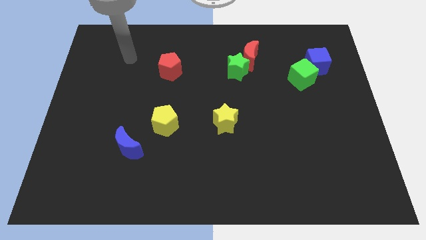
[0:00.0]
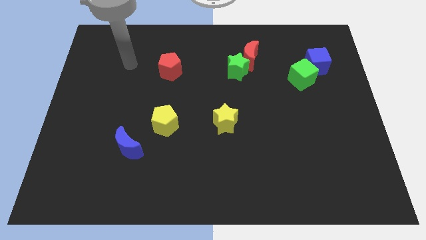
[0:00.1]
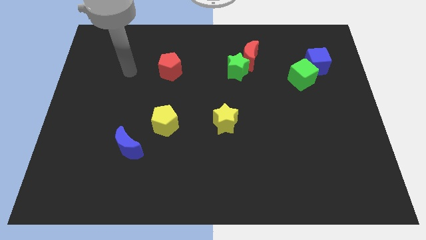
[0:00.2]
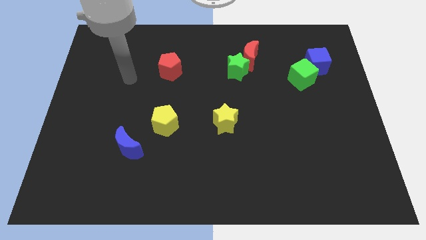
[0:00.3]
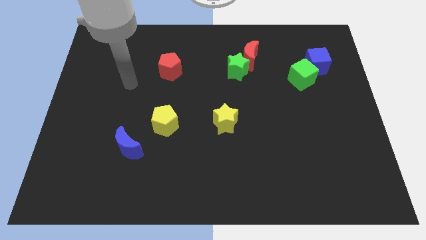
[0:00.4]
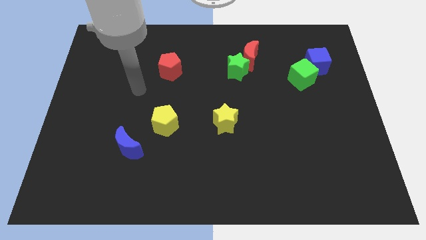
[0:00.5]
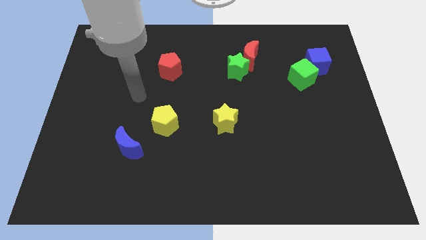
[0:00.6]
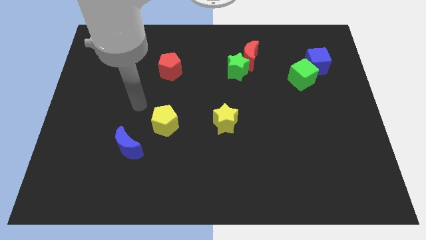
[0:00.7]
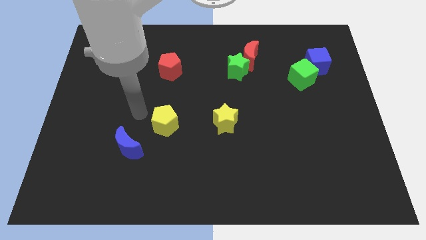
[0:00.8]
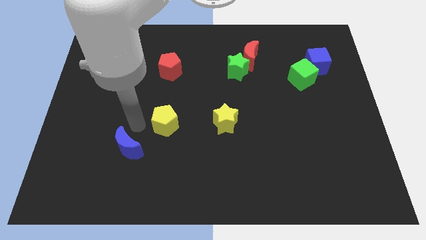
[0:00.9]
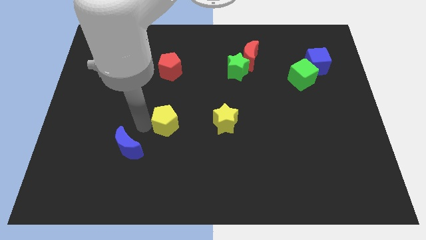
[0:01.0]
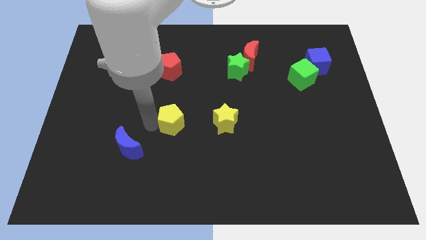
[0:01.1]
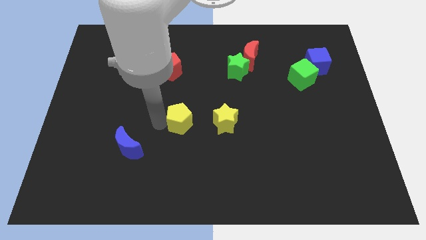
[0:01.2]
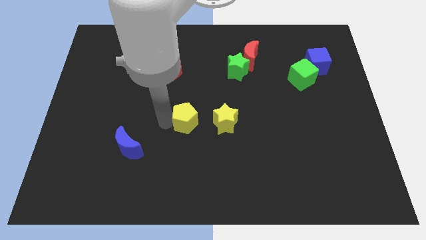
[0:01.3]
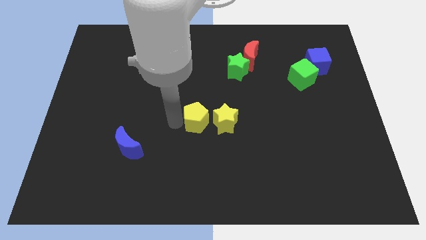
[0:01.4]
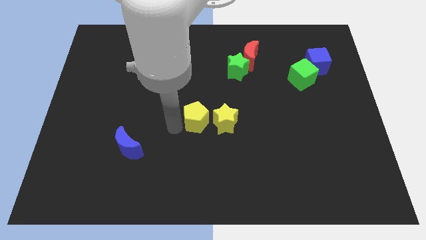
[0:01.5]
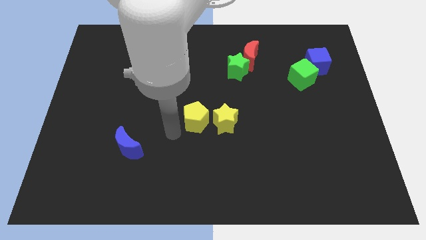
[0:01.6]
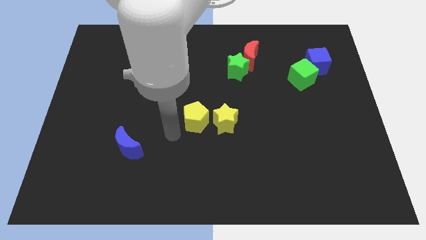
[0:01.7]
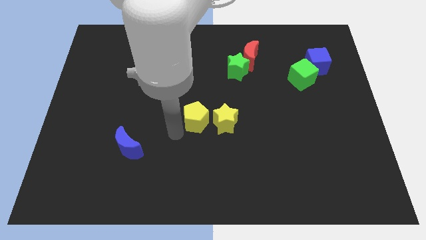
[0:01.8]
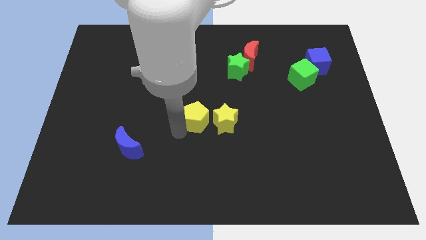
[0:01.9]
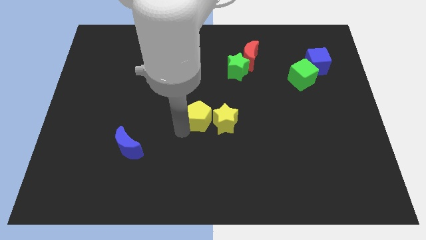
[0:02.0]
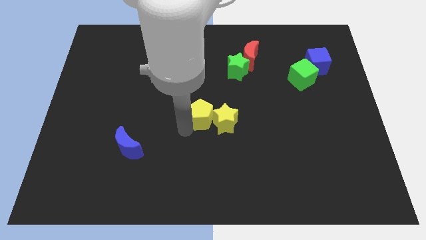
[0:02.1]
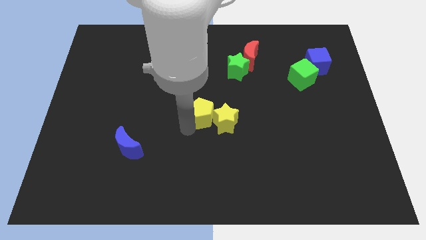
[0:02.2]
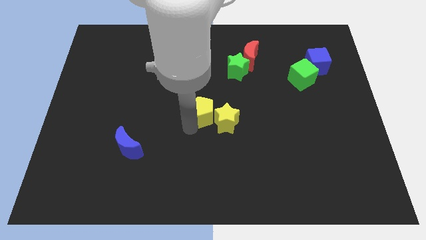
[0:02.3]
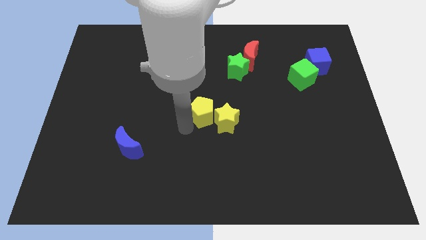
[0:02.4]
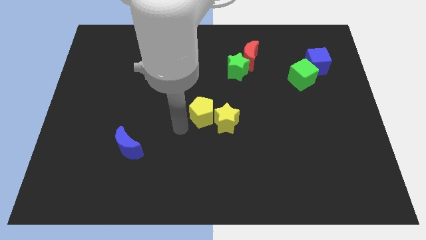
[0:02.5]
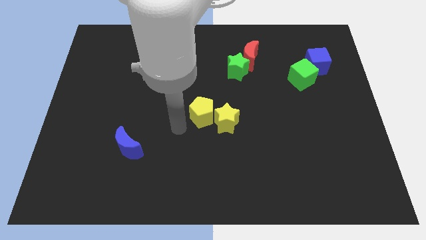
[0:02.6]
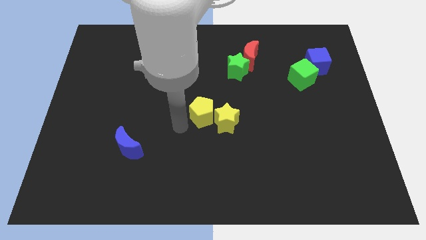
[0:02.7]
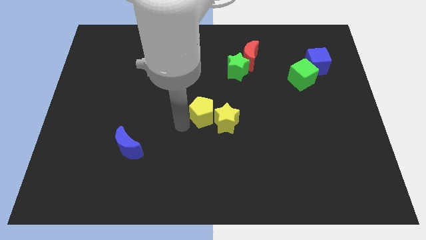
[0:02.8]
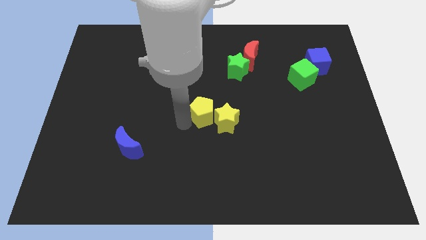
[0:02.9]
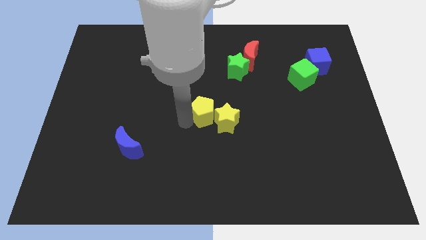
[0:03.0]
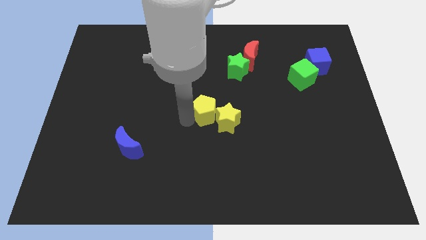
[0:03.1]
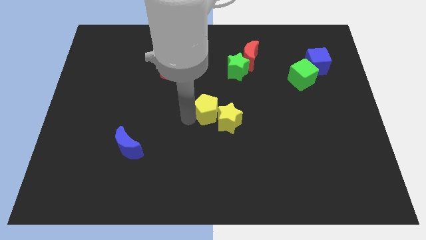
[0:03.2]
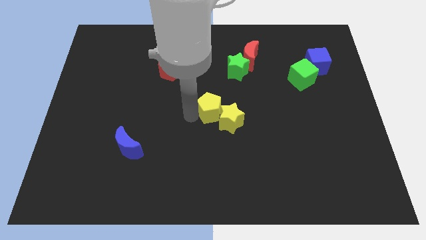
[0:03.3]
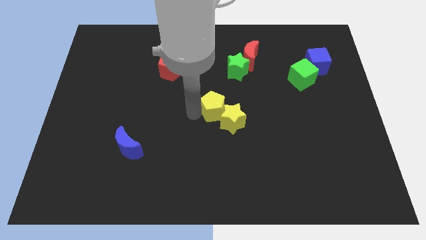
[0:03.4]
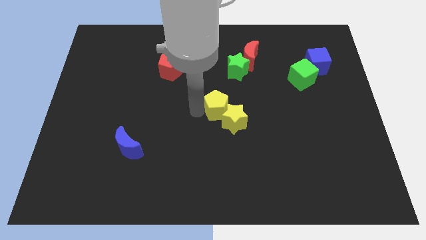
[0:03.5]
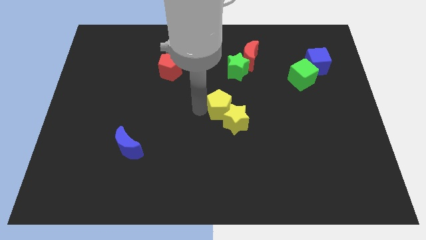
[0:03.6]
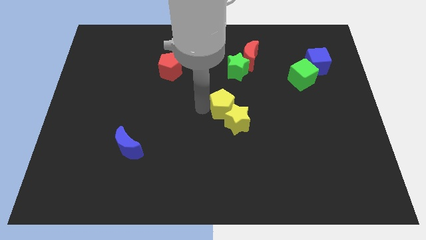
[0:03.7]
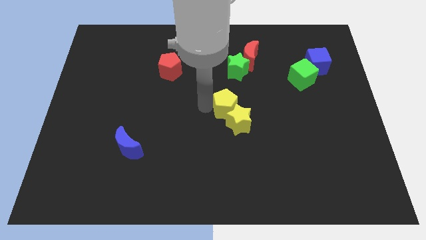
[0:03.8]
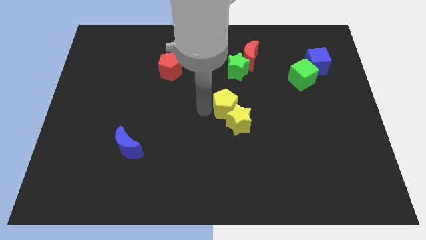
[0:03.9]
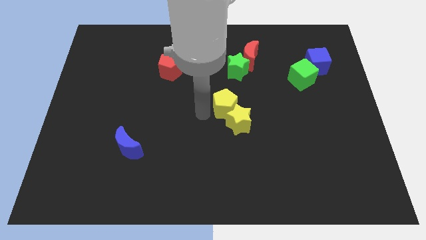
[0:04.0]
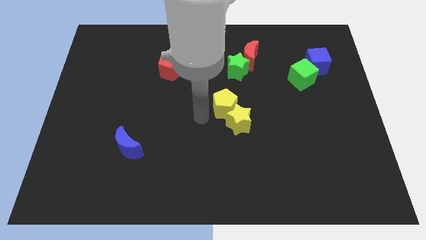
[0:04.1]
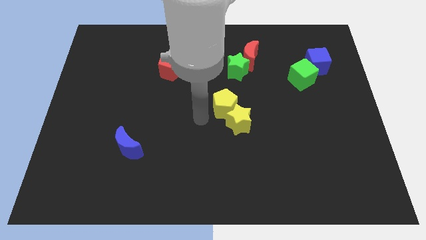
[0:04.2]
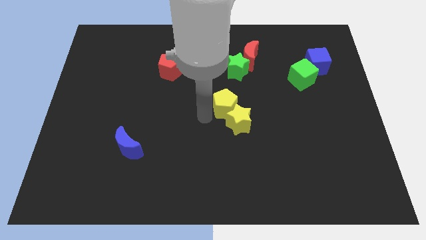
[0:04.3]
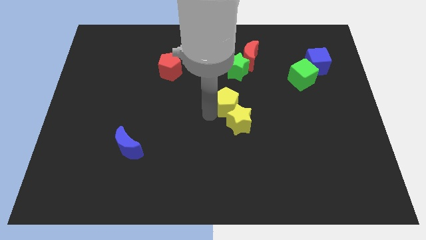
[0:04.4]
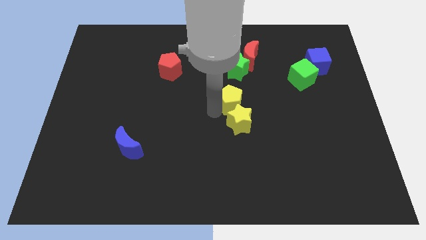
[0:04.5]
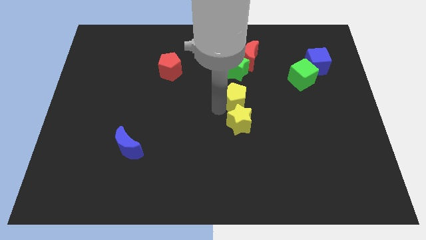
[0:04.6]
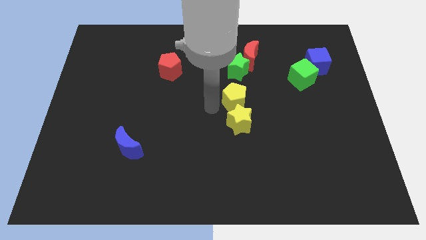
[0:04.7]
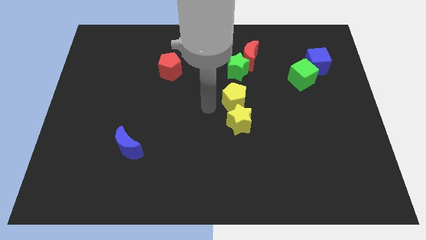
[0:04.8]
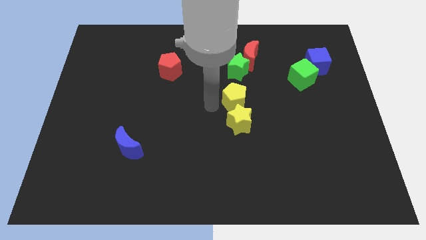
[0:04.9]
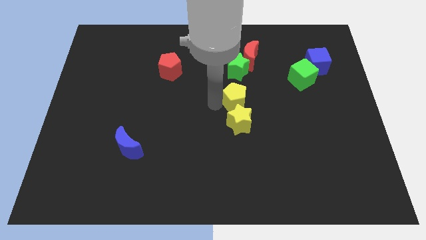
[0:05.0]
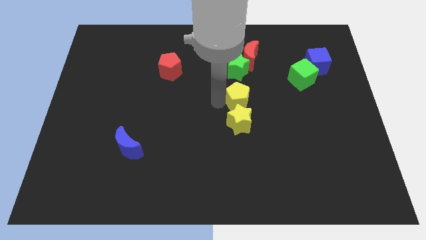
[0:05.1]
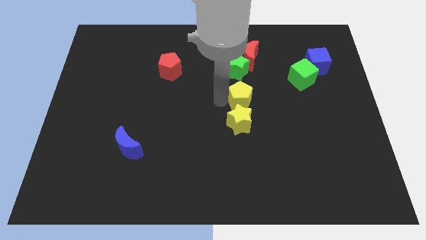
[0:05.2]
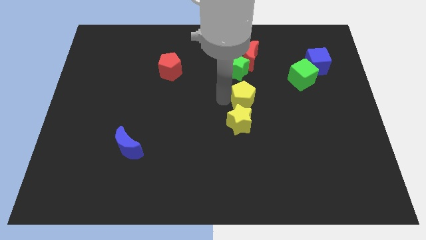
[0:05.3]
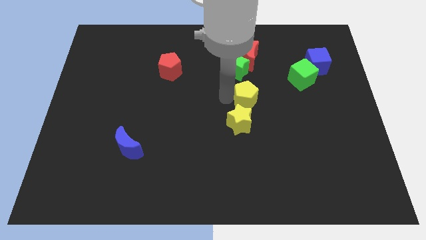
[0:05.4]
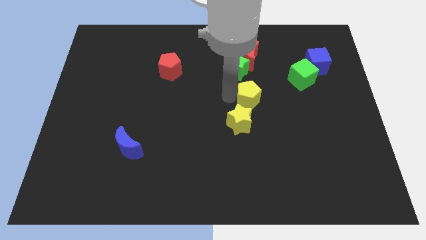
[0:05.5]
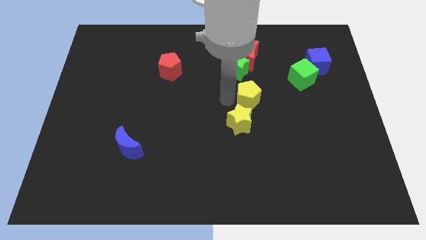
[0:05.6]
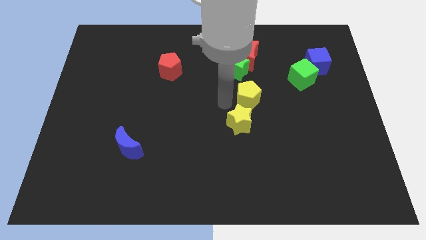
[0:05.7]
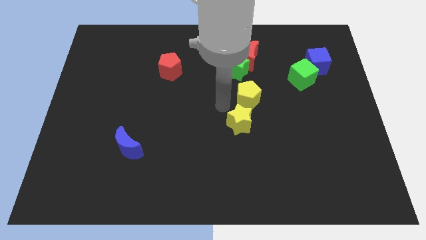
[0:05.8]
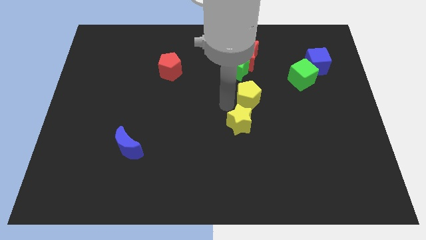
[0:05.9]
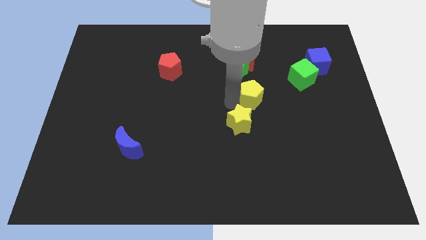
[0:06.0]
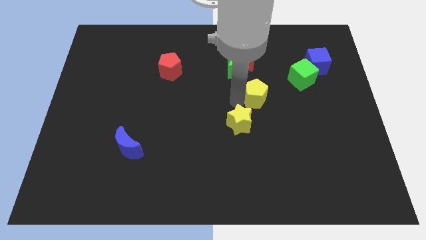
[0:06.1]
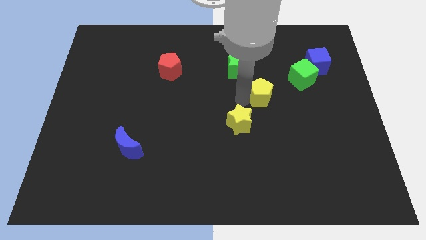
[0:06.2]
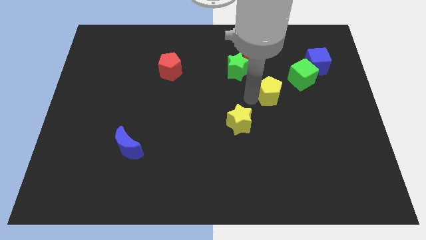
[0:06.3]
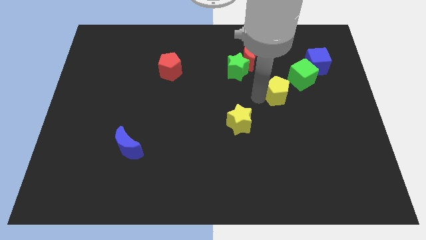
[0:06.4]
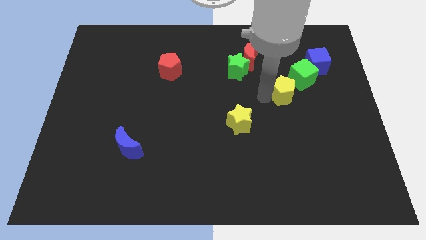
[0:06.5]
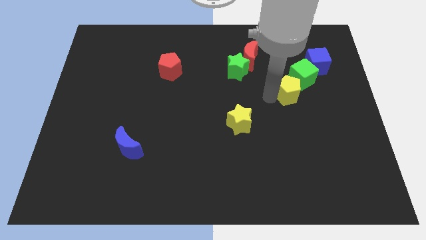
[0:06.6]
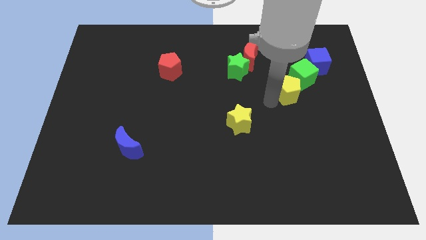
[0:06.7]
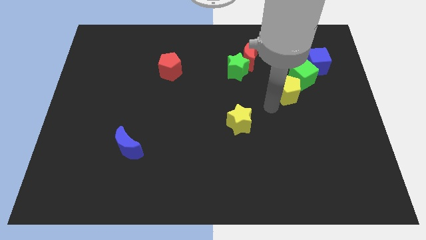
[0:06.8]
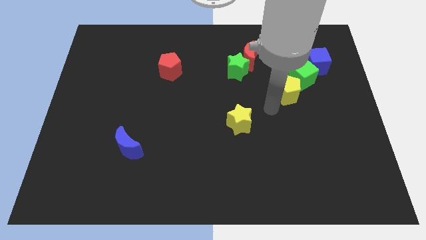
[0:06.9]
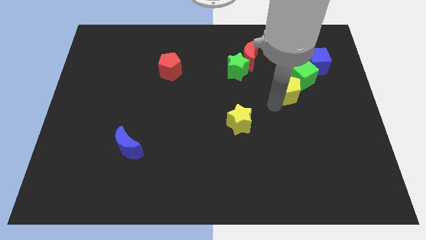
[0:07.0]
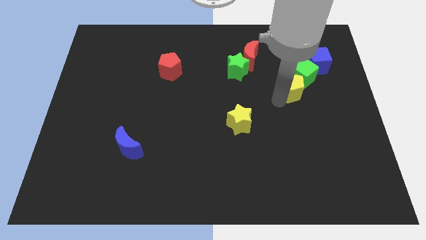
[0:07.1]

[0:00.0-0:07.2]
move the yellow pentagon next to the green cube
